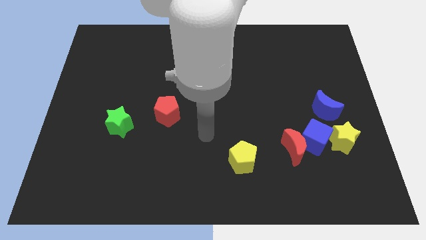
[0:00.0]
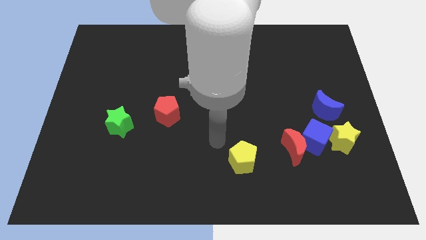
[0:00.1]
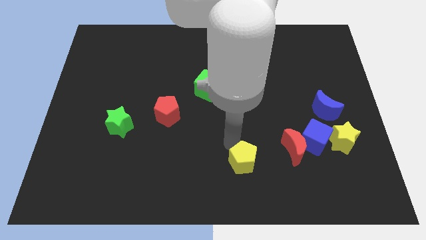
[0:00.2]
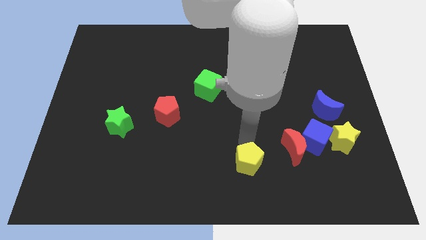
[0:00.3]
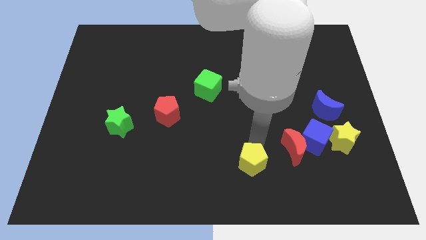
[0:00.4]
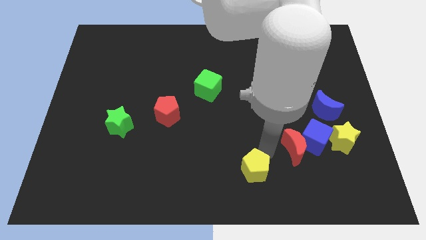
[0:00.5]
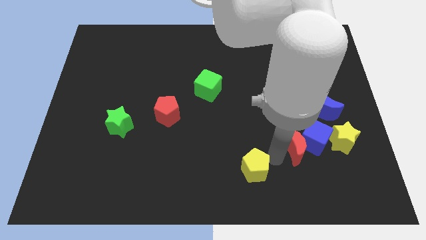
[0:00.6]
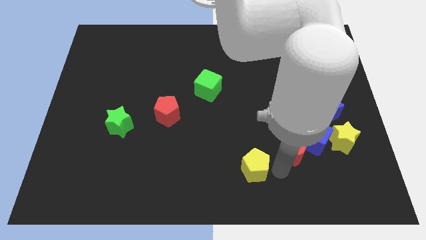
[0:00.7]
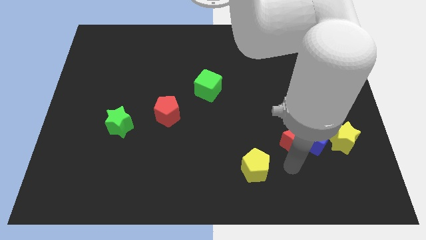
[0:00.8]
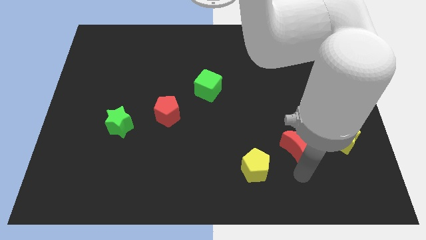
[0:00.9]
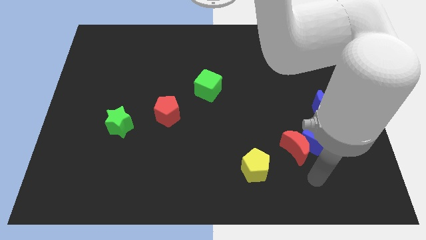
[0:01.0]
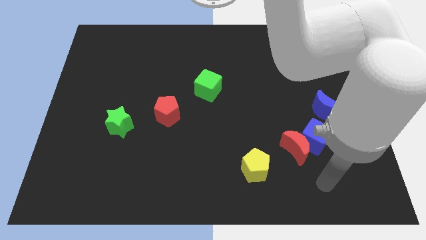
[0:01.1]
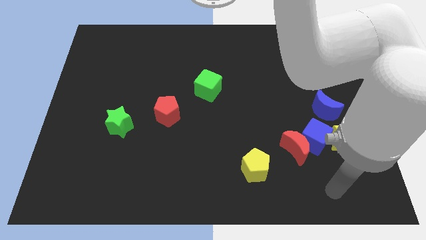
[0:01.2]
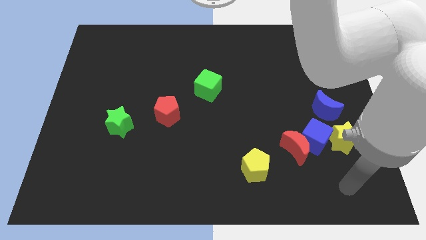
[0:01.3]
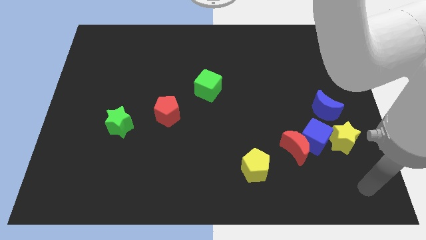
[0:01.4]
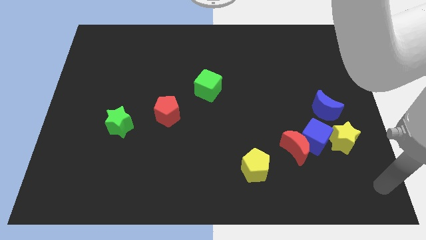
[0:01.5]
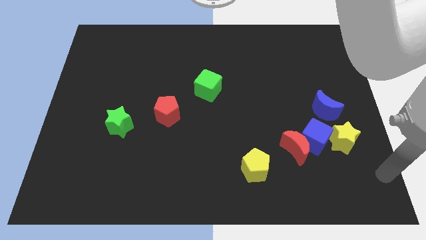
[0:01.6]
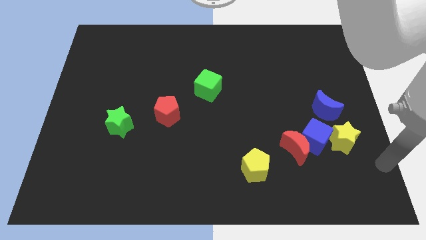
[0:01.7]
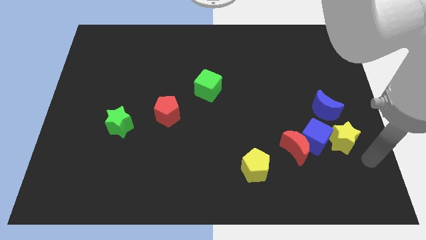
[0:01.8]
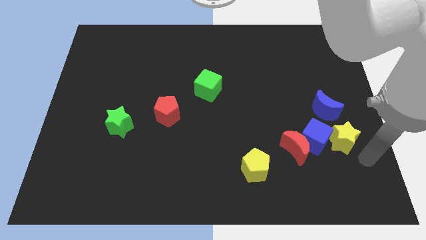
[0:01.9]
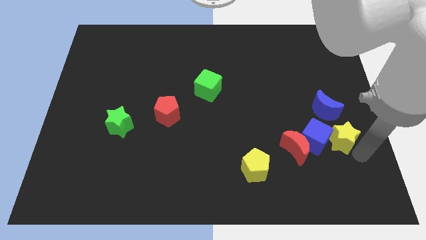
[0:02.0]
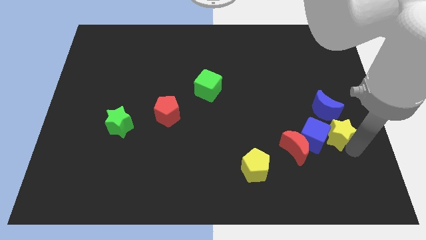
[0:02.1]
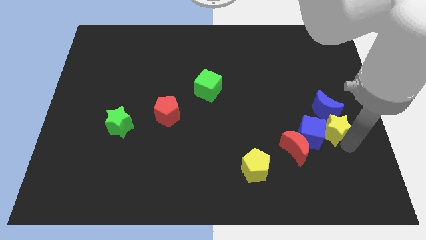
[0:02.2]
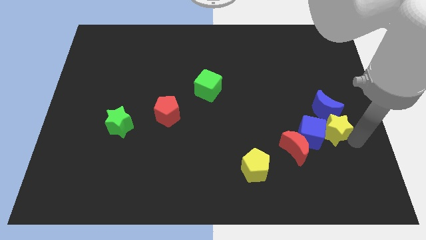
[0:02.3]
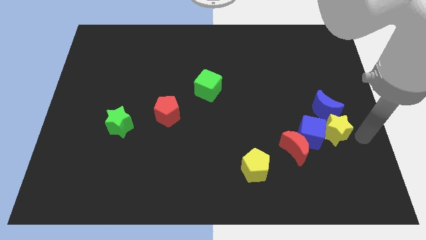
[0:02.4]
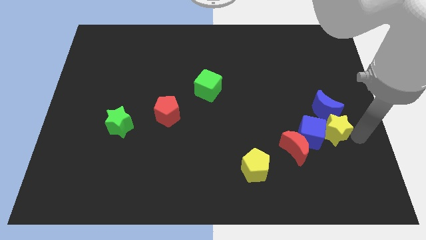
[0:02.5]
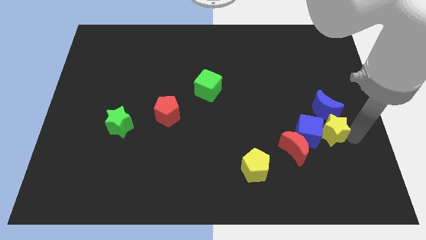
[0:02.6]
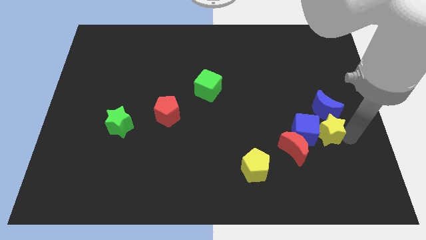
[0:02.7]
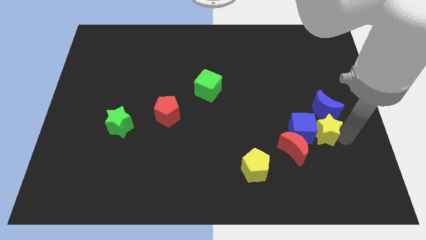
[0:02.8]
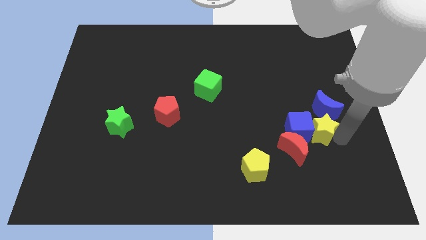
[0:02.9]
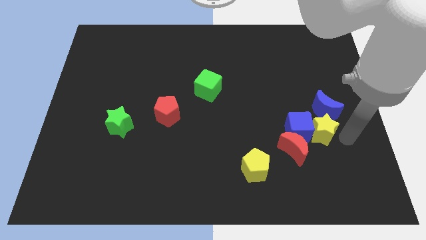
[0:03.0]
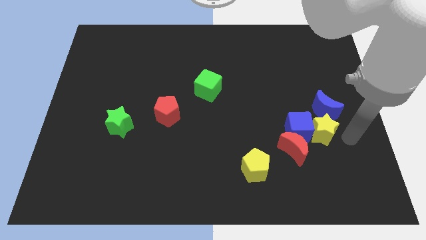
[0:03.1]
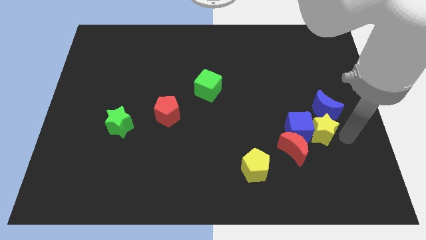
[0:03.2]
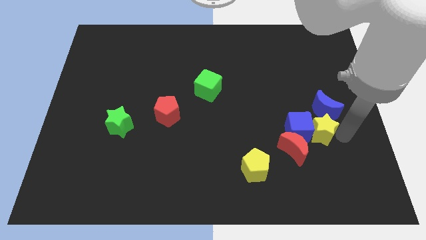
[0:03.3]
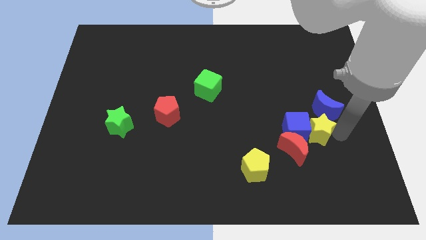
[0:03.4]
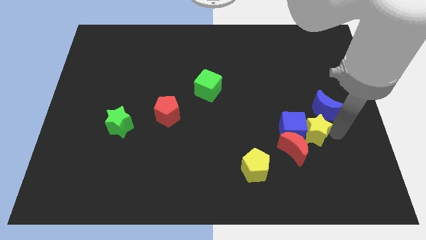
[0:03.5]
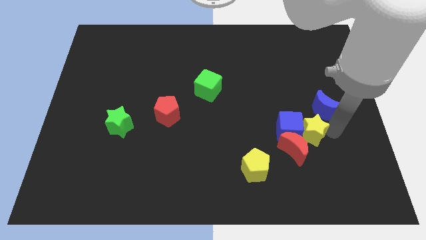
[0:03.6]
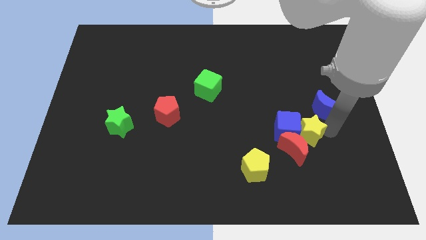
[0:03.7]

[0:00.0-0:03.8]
slightly push the yellow star left

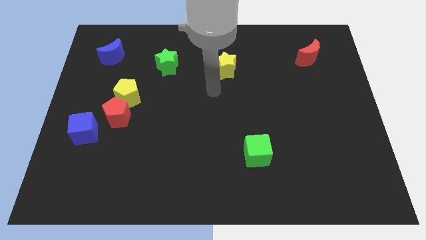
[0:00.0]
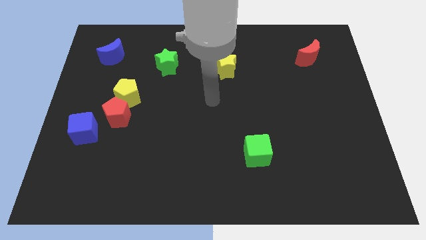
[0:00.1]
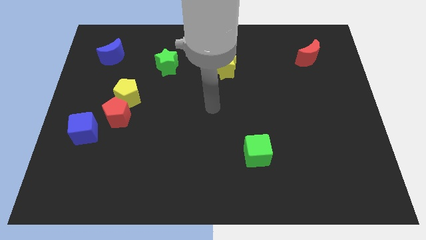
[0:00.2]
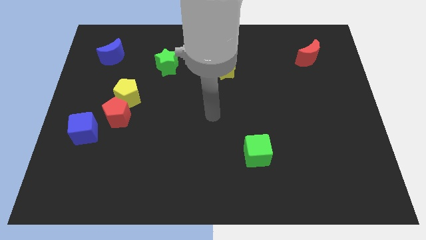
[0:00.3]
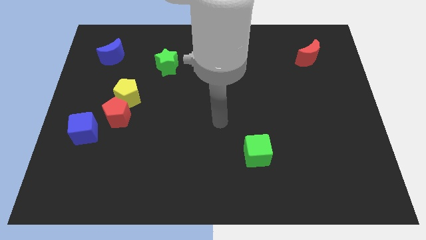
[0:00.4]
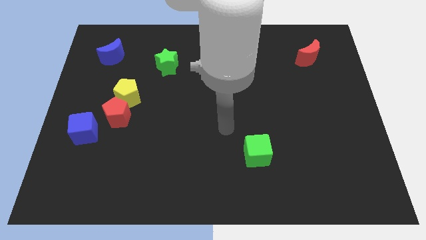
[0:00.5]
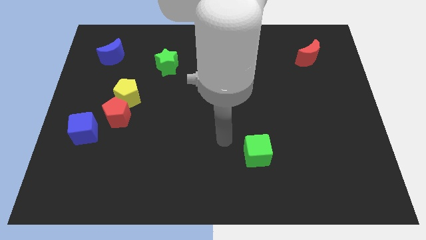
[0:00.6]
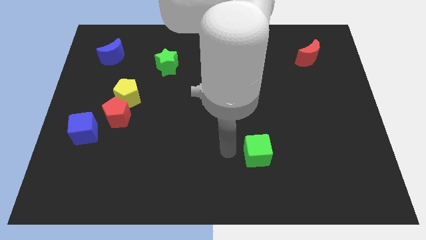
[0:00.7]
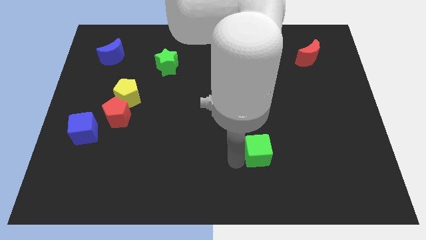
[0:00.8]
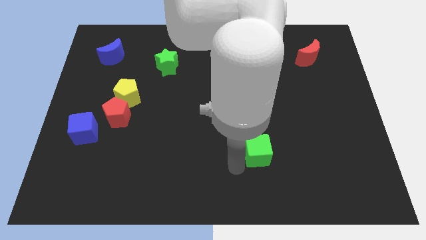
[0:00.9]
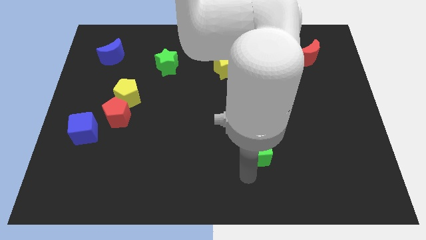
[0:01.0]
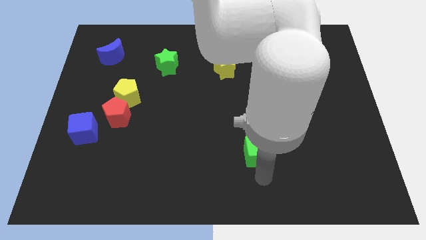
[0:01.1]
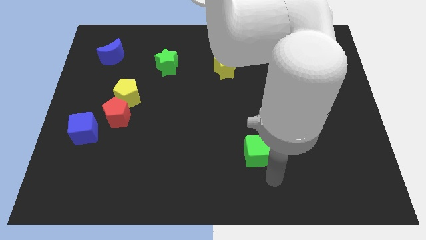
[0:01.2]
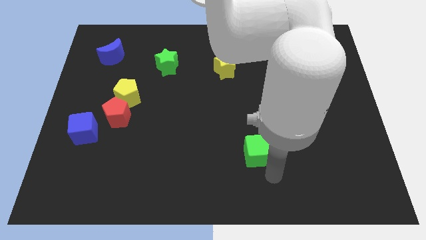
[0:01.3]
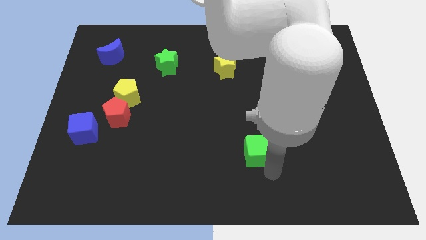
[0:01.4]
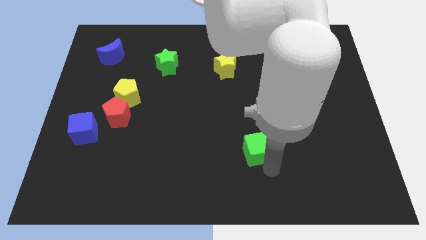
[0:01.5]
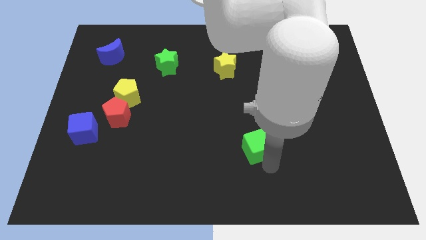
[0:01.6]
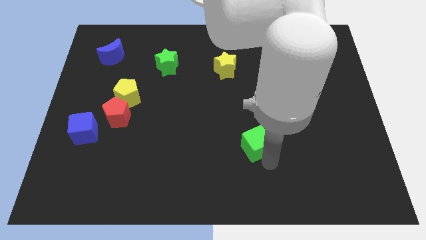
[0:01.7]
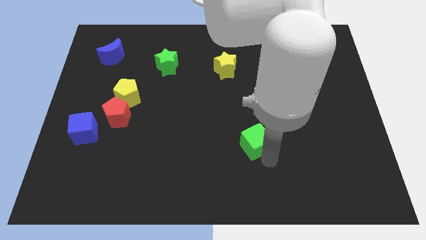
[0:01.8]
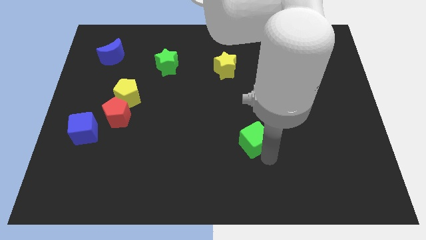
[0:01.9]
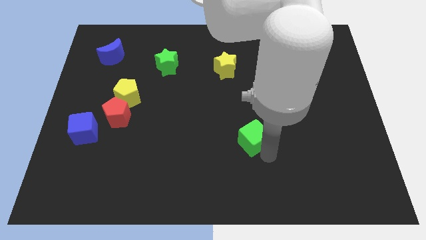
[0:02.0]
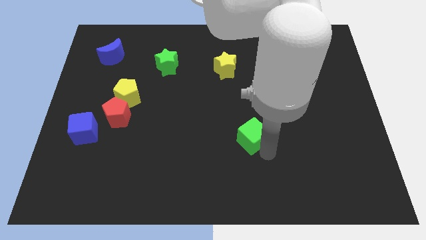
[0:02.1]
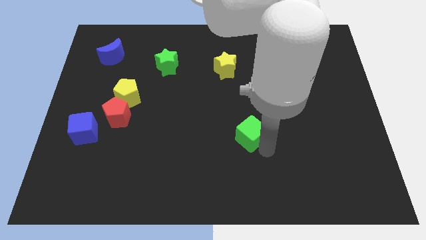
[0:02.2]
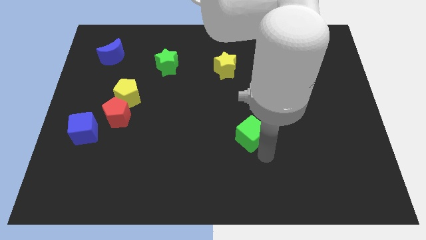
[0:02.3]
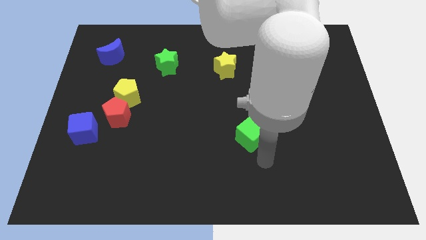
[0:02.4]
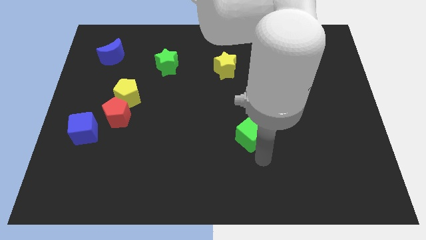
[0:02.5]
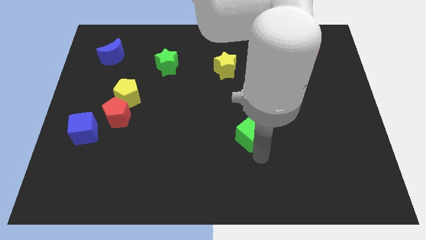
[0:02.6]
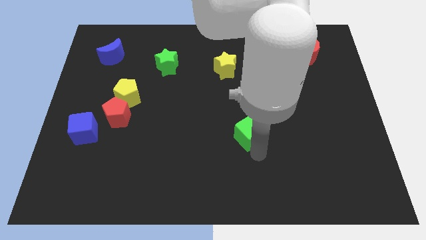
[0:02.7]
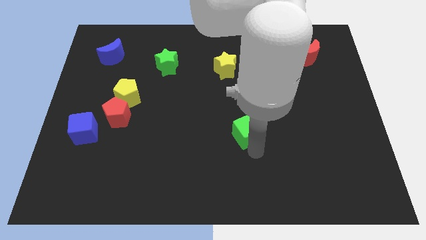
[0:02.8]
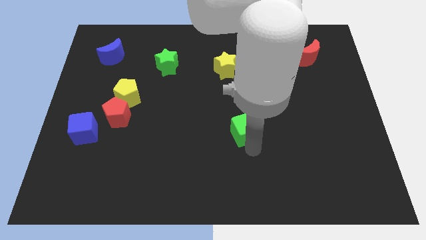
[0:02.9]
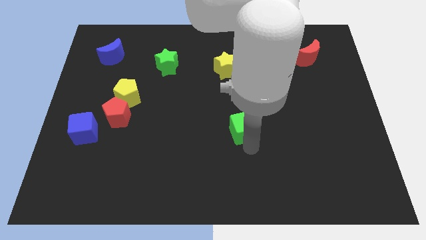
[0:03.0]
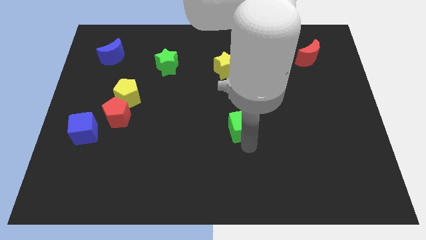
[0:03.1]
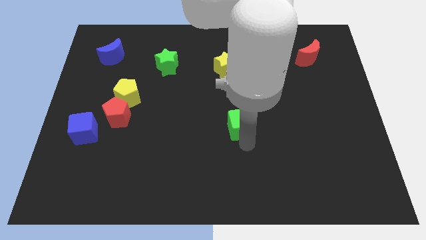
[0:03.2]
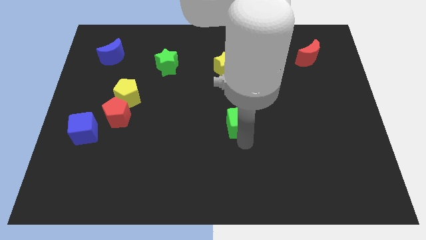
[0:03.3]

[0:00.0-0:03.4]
move the green cube a little upwards

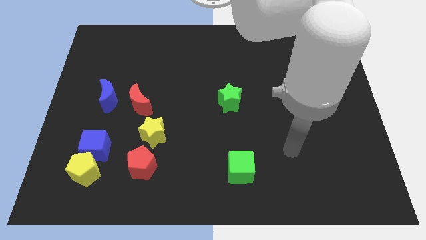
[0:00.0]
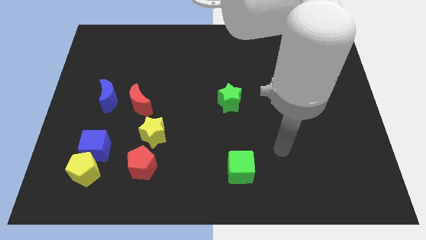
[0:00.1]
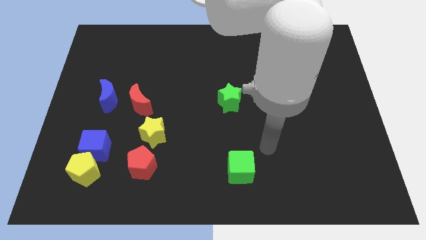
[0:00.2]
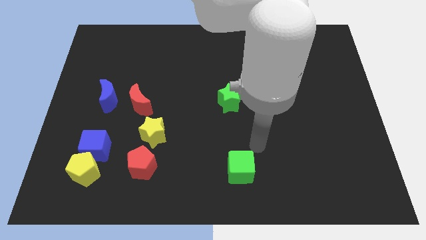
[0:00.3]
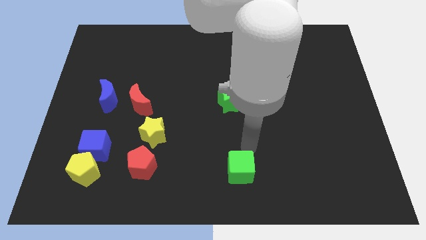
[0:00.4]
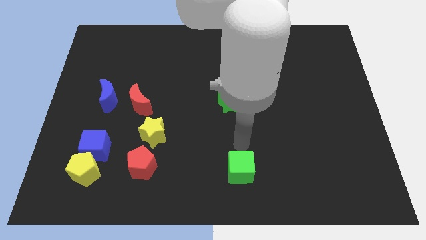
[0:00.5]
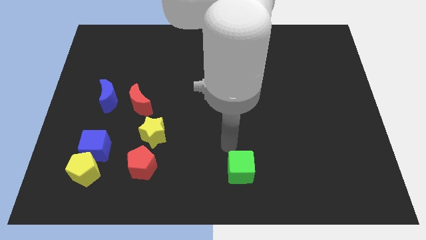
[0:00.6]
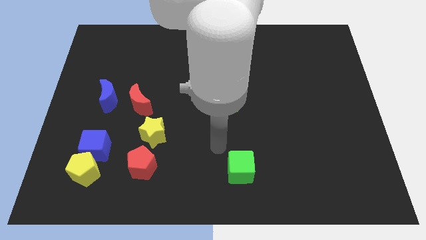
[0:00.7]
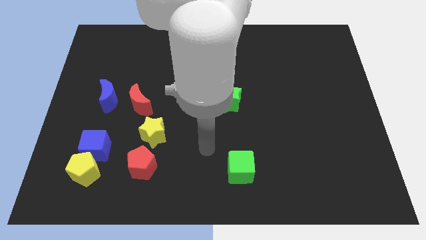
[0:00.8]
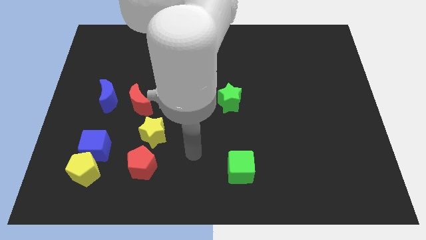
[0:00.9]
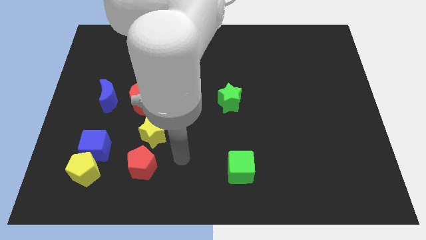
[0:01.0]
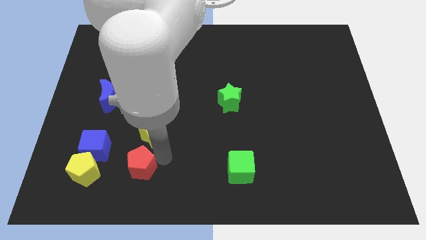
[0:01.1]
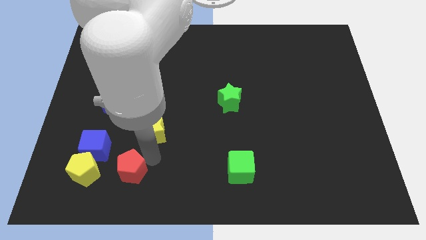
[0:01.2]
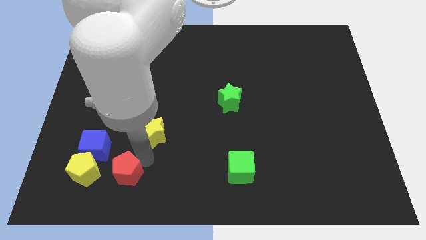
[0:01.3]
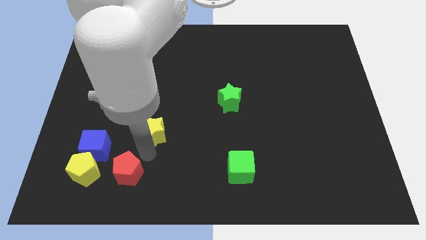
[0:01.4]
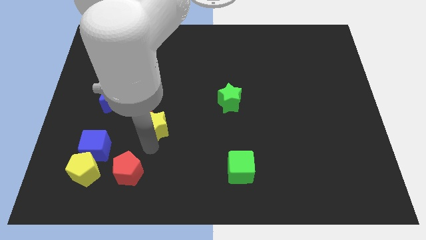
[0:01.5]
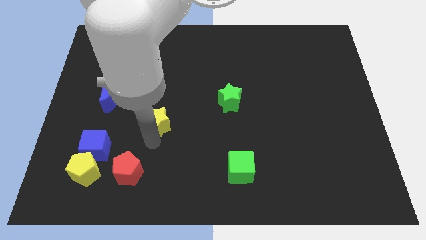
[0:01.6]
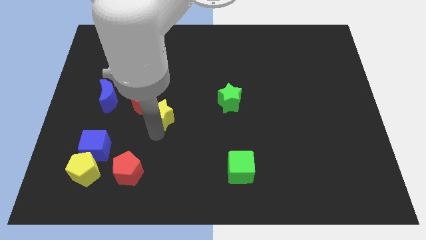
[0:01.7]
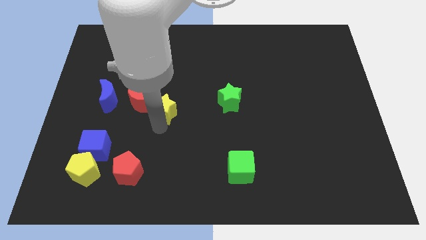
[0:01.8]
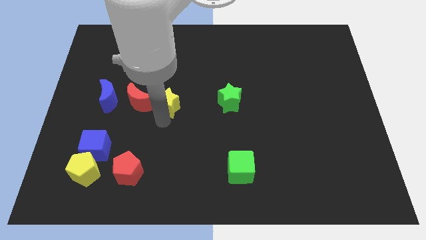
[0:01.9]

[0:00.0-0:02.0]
slide the yellow star up a little bit
